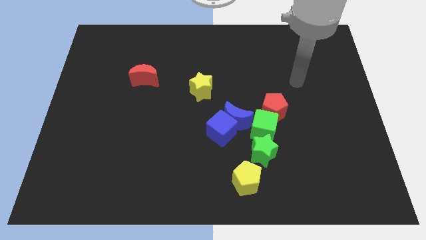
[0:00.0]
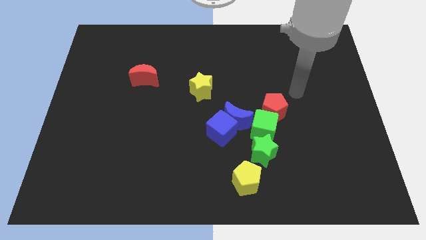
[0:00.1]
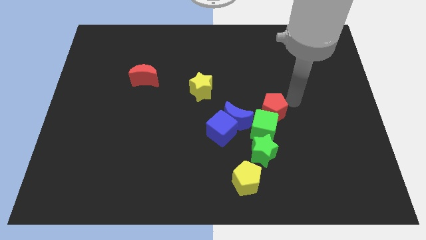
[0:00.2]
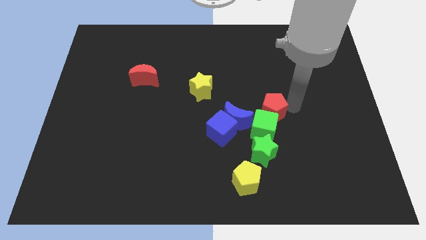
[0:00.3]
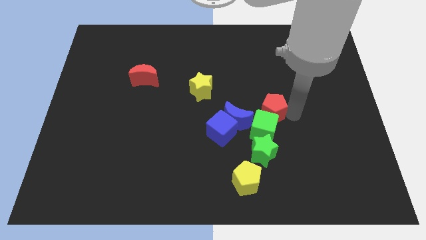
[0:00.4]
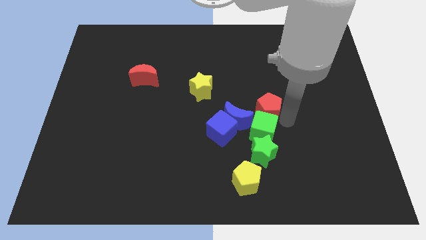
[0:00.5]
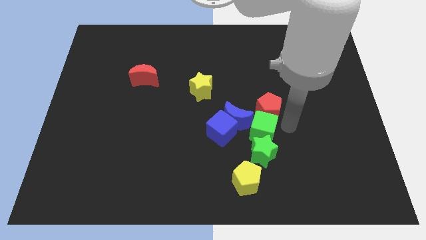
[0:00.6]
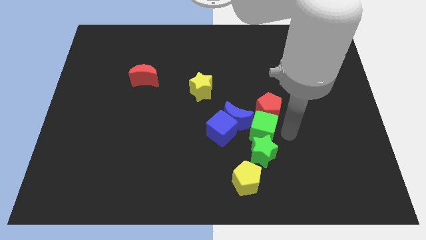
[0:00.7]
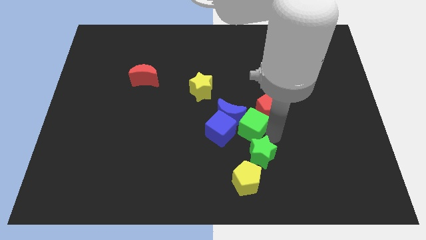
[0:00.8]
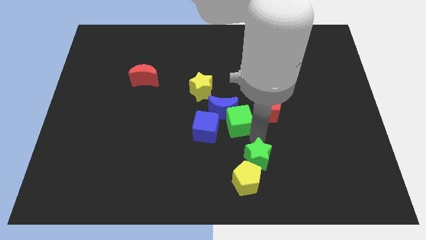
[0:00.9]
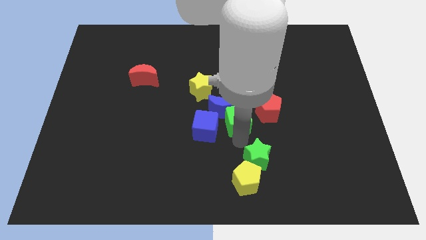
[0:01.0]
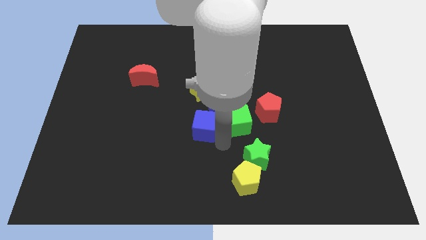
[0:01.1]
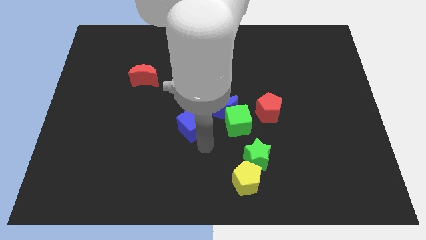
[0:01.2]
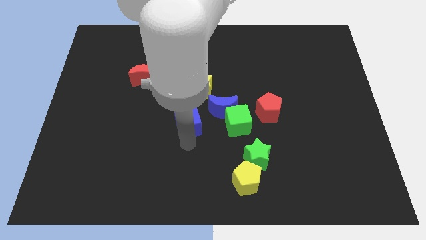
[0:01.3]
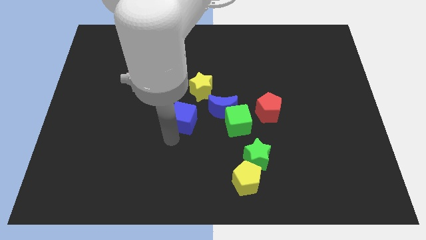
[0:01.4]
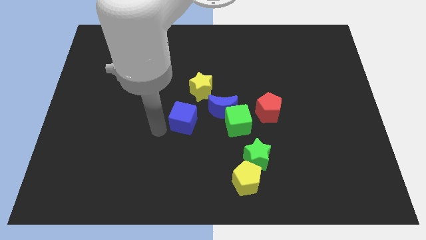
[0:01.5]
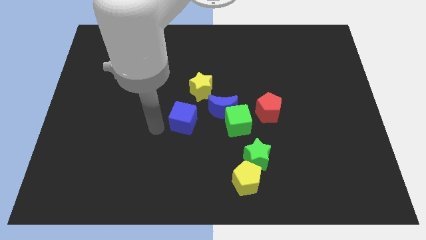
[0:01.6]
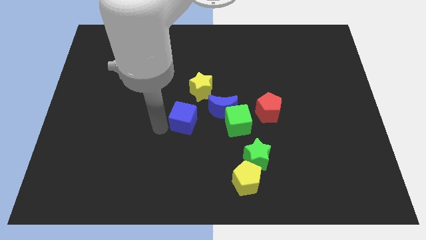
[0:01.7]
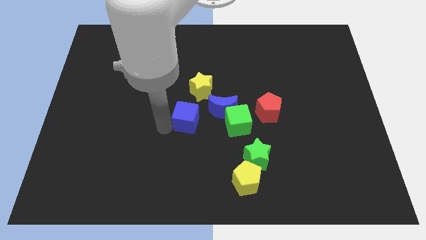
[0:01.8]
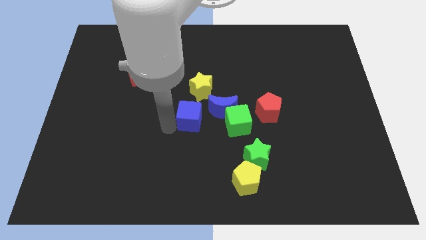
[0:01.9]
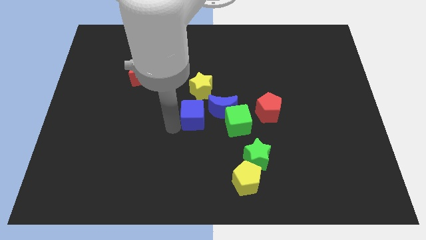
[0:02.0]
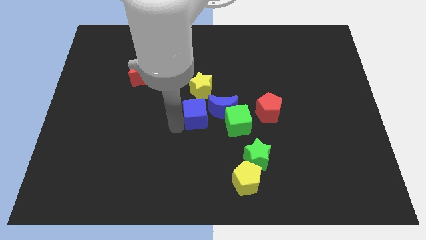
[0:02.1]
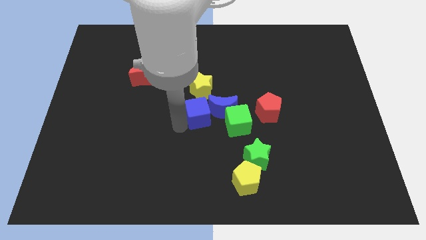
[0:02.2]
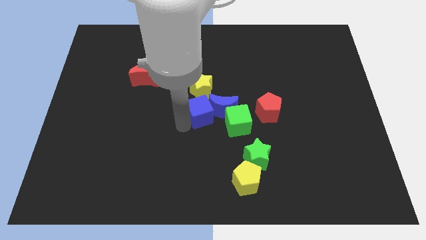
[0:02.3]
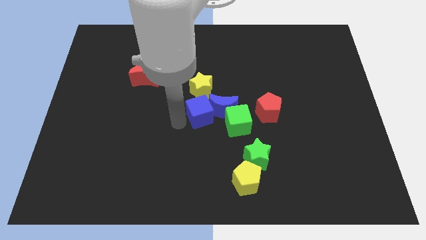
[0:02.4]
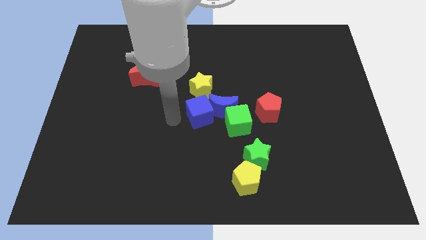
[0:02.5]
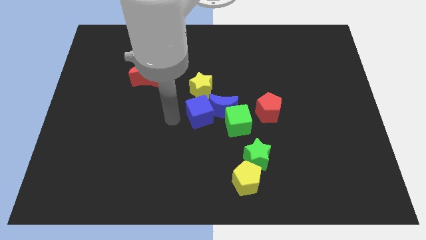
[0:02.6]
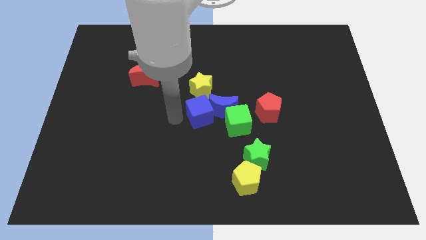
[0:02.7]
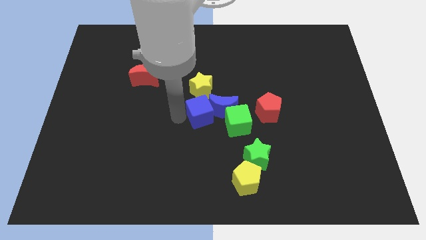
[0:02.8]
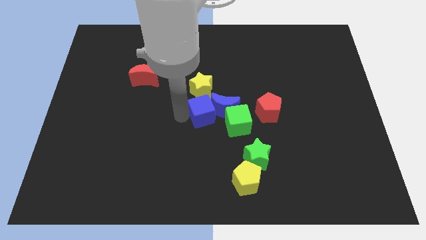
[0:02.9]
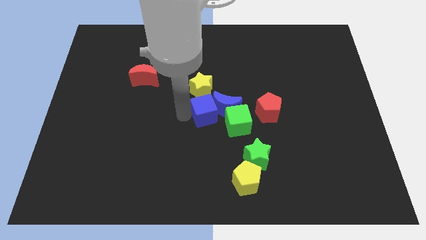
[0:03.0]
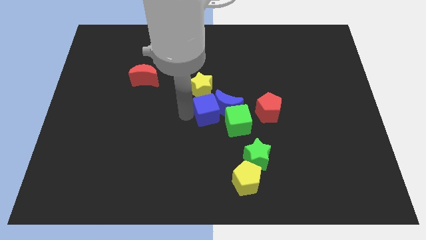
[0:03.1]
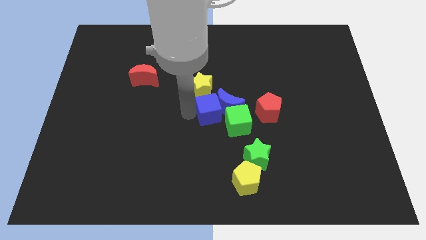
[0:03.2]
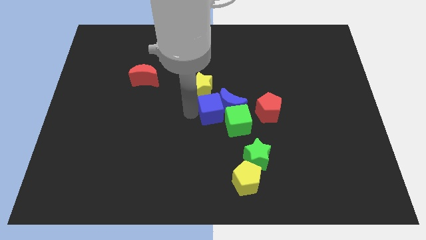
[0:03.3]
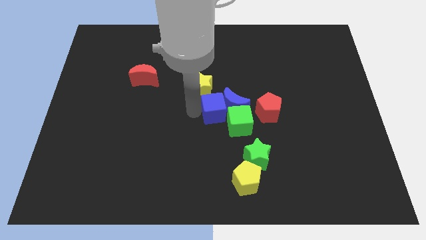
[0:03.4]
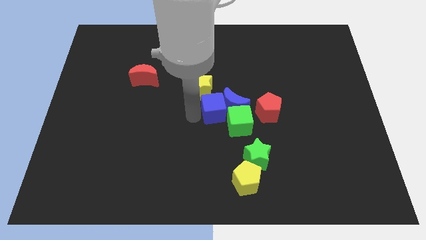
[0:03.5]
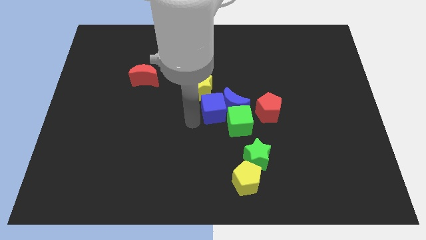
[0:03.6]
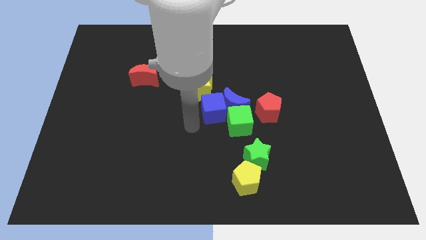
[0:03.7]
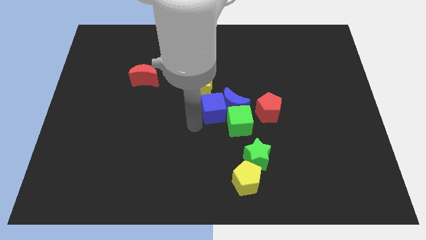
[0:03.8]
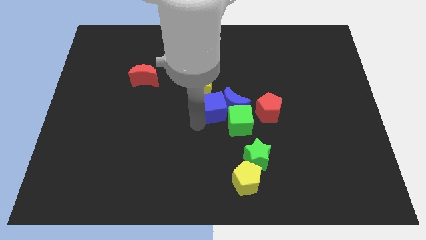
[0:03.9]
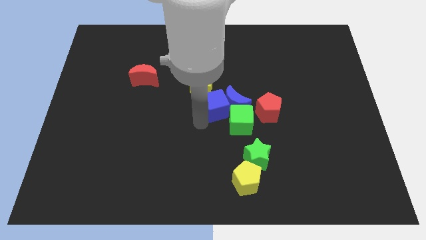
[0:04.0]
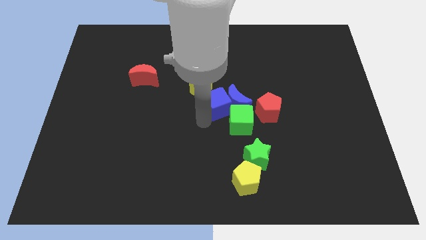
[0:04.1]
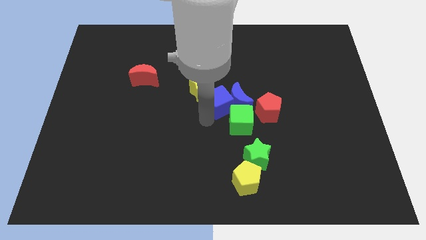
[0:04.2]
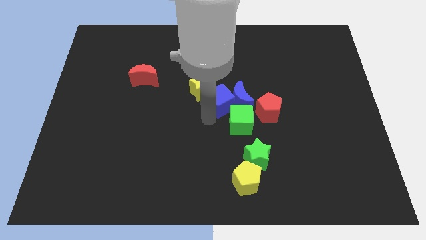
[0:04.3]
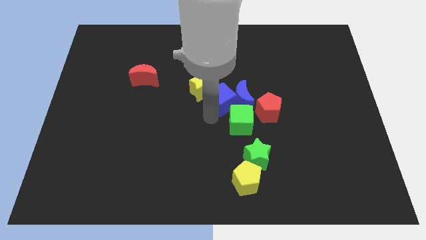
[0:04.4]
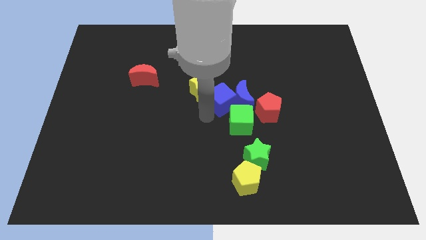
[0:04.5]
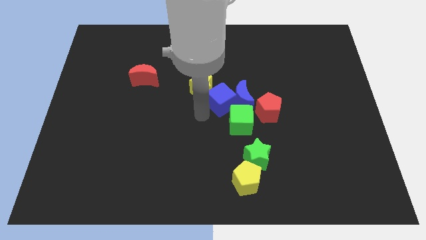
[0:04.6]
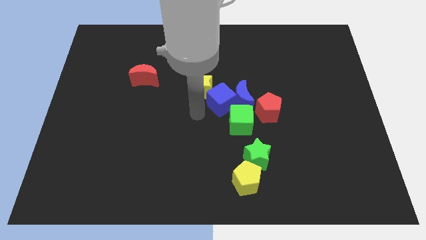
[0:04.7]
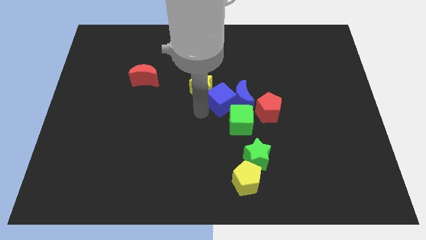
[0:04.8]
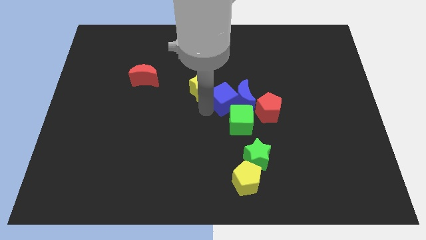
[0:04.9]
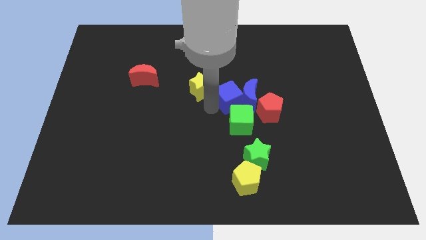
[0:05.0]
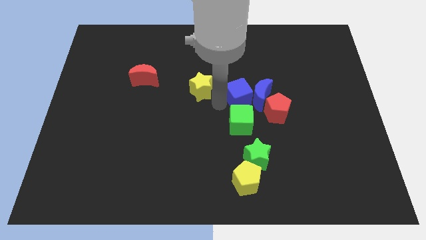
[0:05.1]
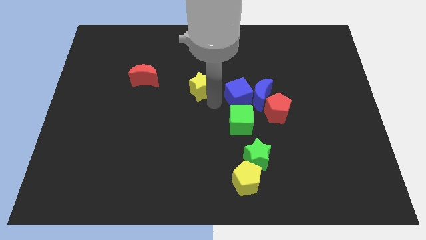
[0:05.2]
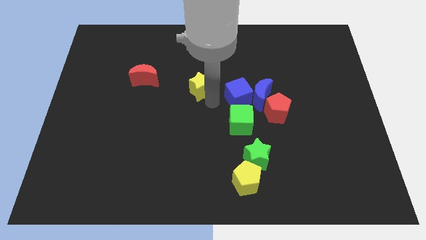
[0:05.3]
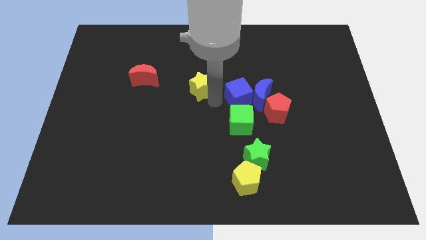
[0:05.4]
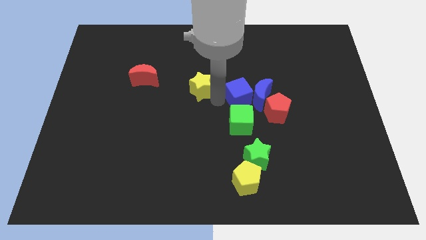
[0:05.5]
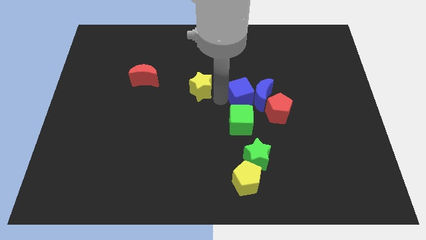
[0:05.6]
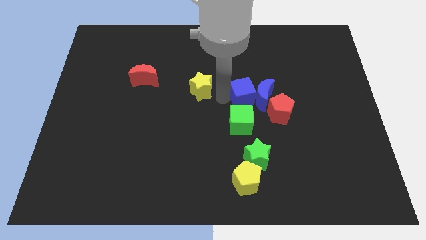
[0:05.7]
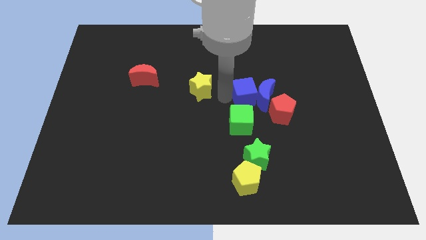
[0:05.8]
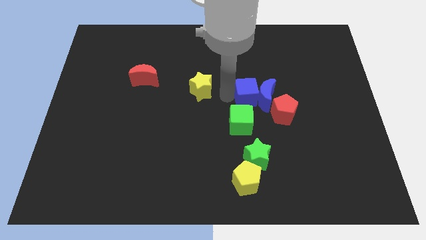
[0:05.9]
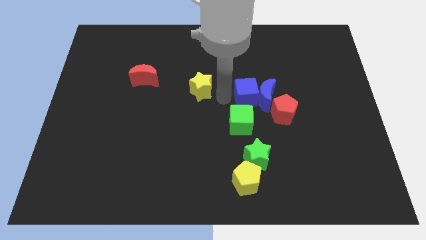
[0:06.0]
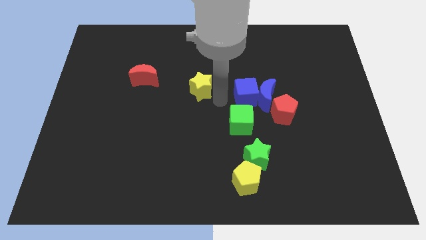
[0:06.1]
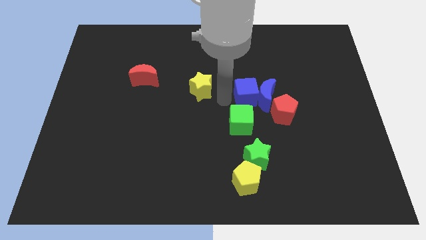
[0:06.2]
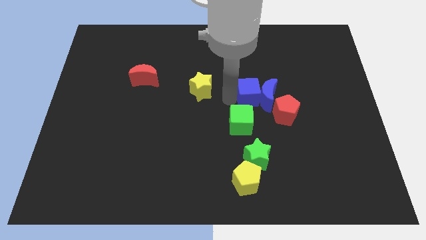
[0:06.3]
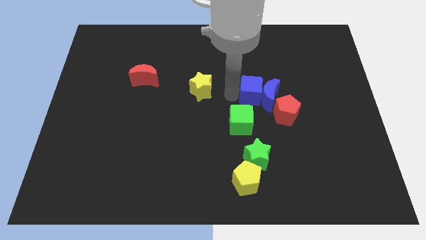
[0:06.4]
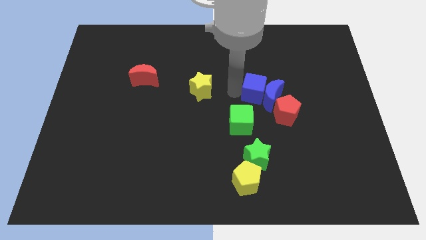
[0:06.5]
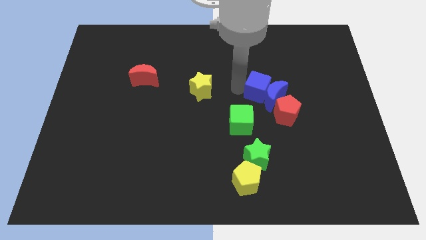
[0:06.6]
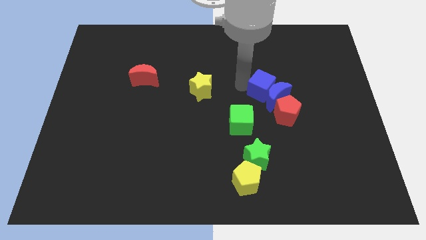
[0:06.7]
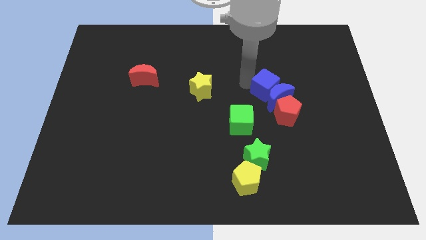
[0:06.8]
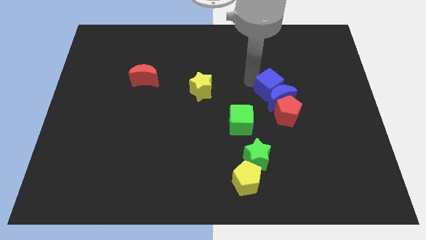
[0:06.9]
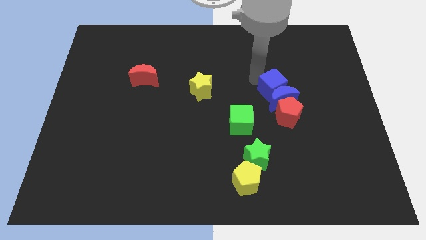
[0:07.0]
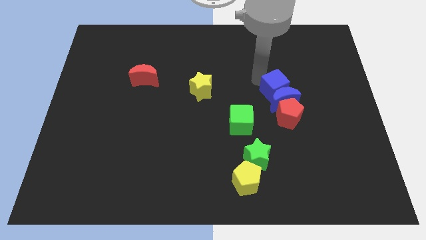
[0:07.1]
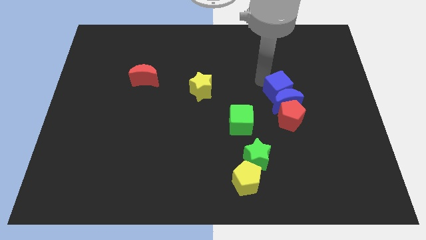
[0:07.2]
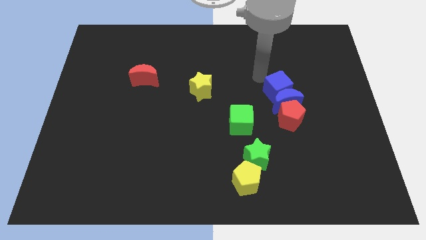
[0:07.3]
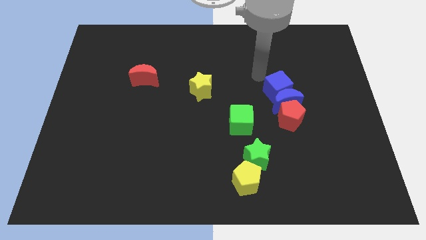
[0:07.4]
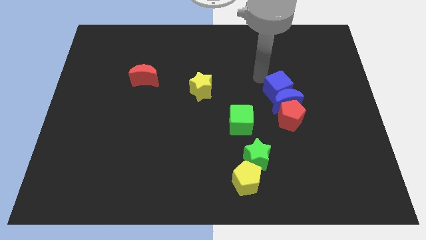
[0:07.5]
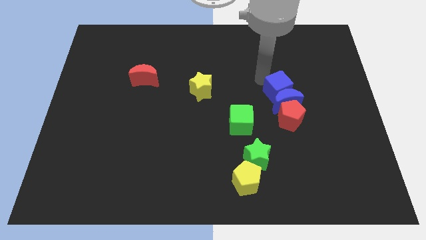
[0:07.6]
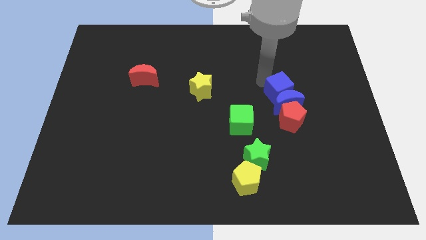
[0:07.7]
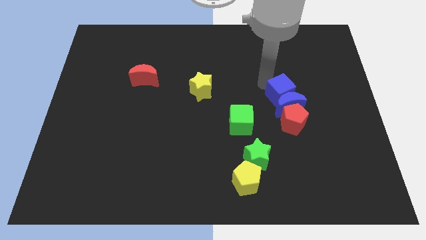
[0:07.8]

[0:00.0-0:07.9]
push the blue cube right a bit
